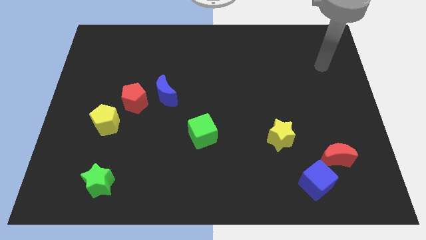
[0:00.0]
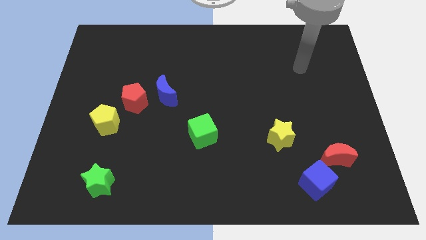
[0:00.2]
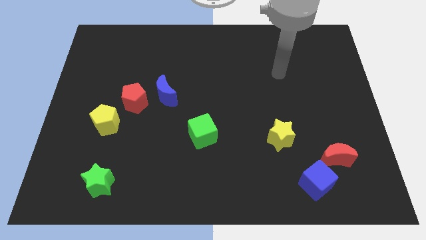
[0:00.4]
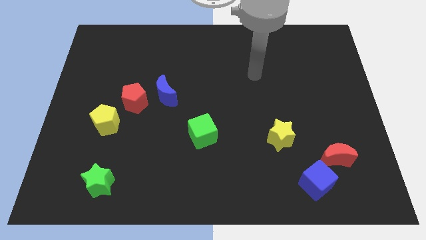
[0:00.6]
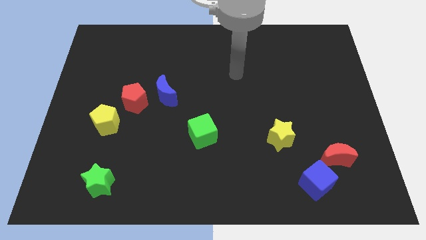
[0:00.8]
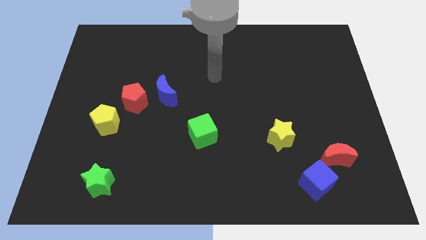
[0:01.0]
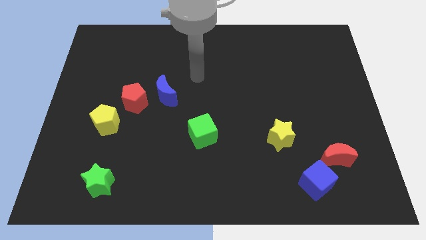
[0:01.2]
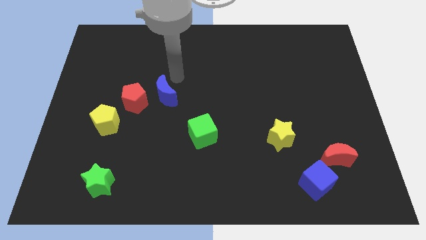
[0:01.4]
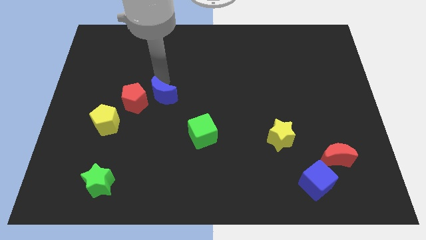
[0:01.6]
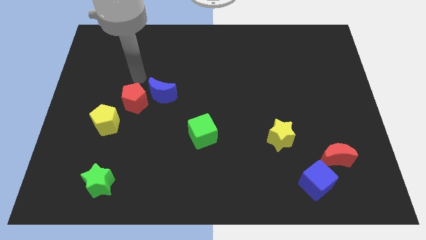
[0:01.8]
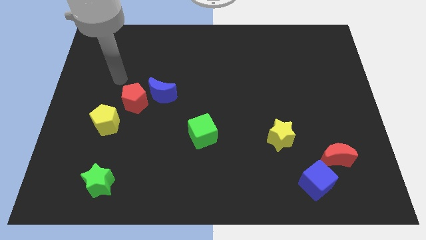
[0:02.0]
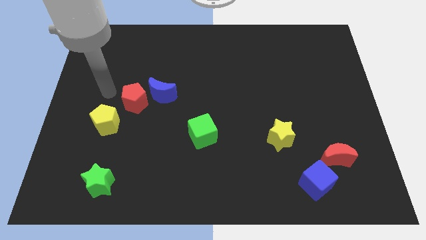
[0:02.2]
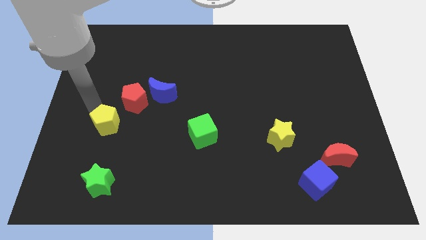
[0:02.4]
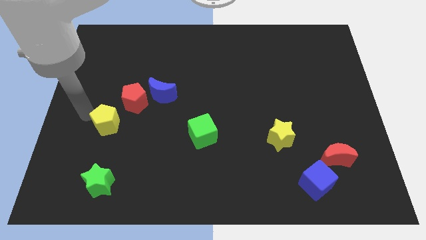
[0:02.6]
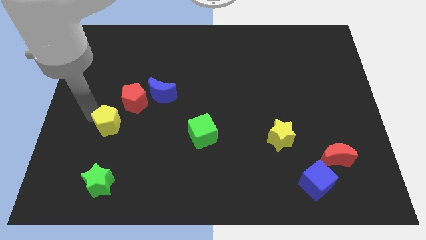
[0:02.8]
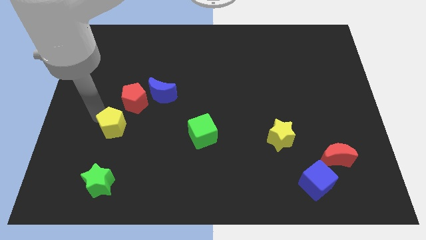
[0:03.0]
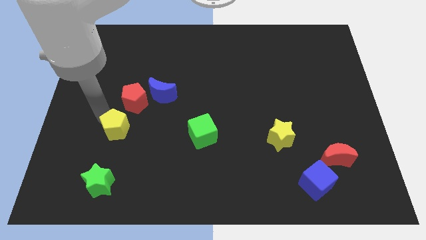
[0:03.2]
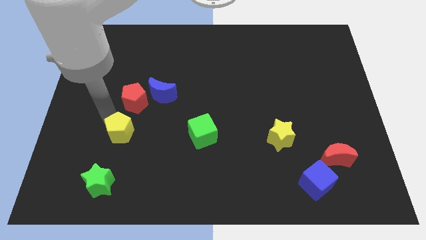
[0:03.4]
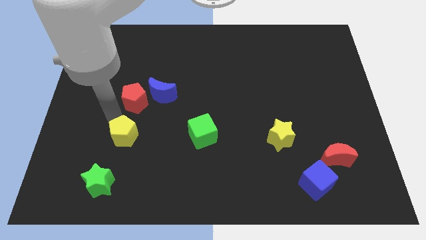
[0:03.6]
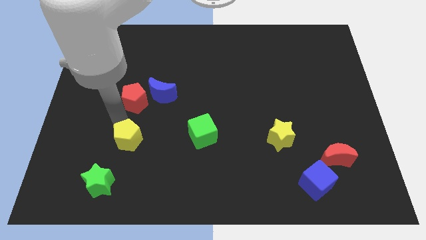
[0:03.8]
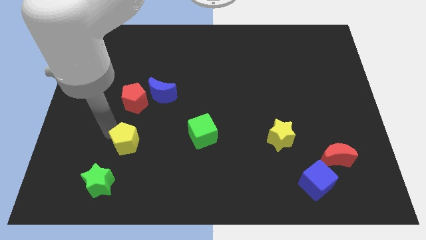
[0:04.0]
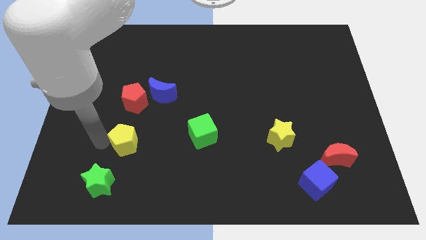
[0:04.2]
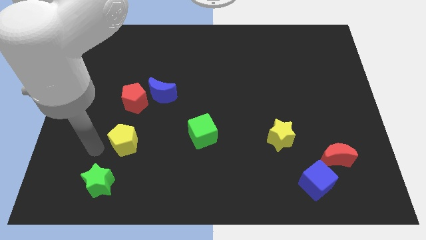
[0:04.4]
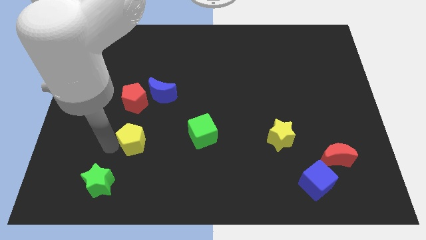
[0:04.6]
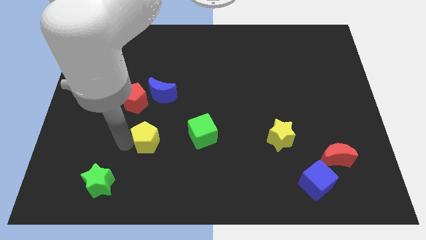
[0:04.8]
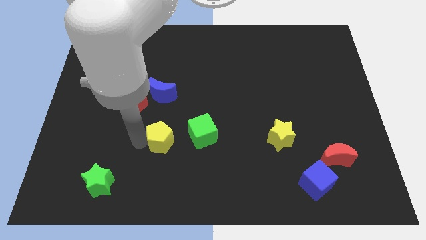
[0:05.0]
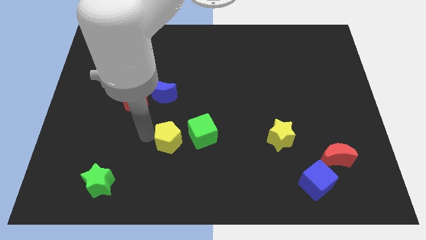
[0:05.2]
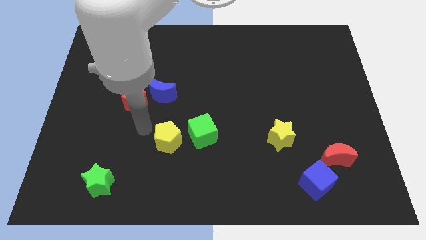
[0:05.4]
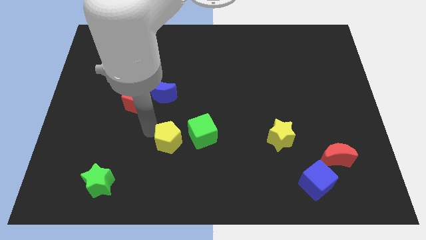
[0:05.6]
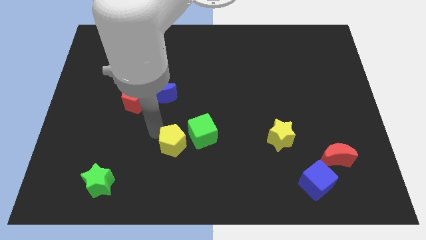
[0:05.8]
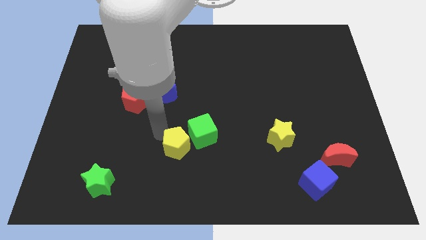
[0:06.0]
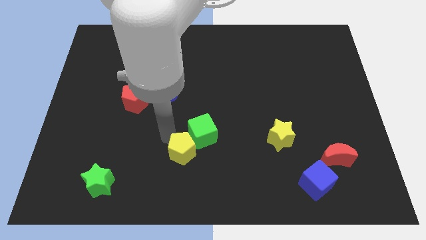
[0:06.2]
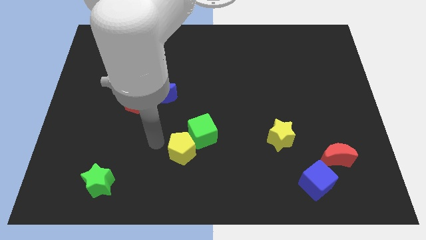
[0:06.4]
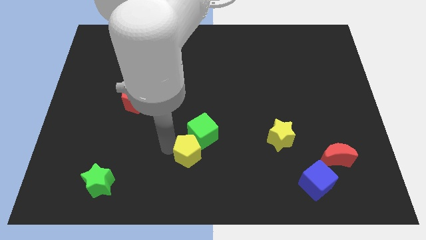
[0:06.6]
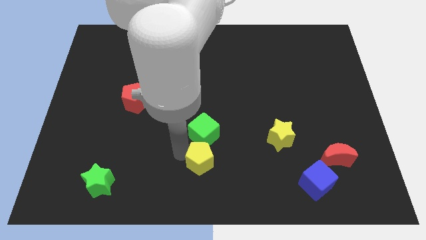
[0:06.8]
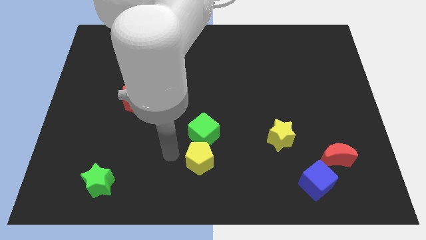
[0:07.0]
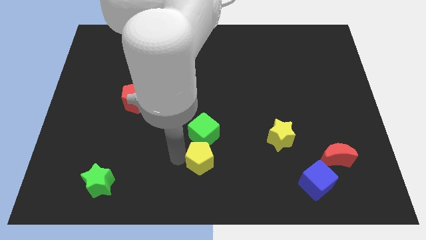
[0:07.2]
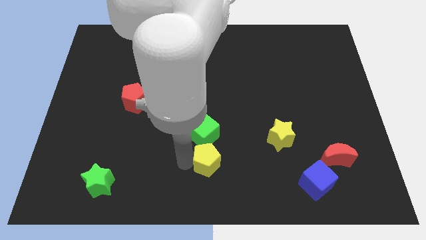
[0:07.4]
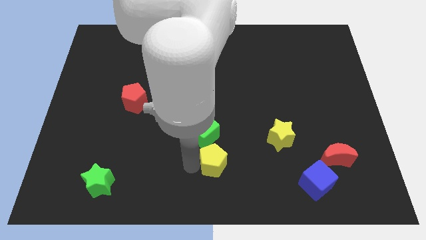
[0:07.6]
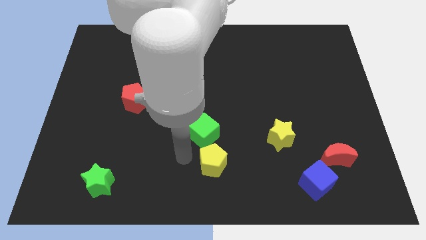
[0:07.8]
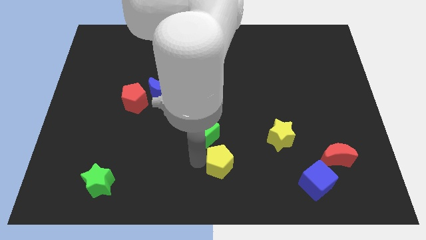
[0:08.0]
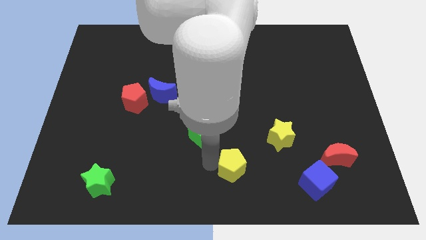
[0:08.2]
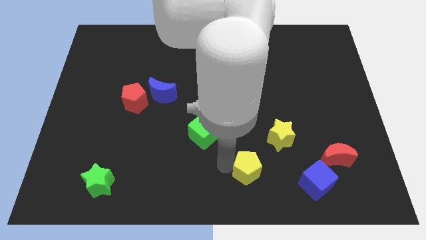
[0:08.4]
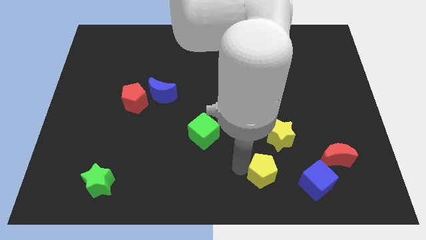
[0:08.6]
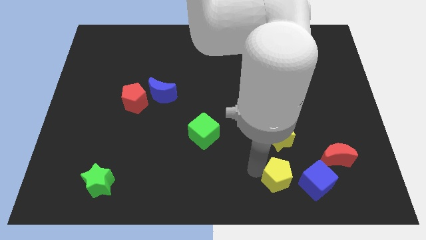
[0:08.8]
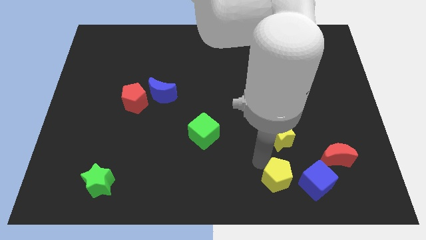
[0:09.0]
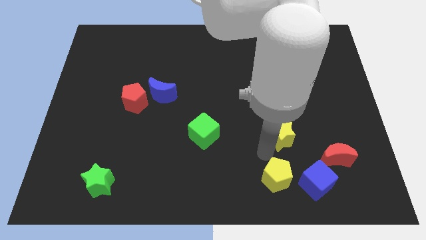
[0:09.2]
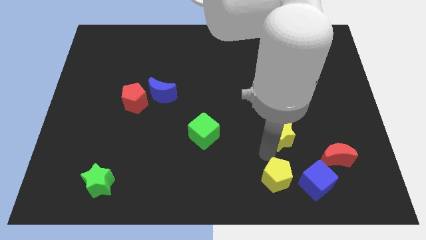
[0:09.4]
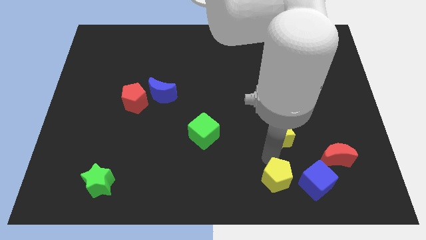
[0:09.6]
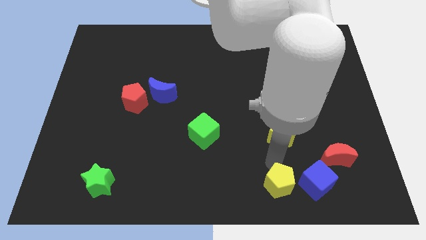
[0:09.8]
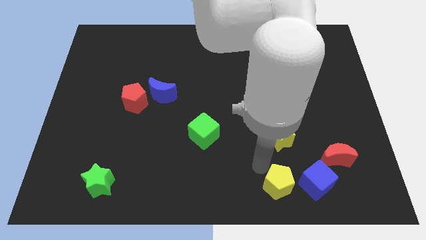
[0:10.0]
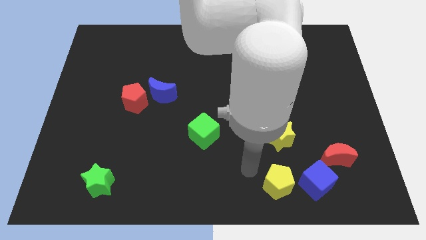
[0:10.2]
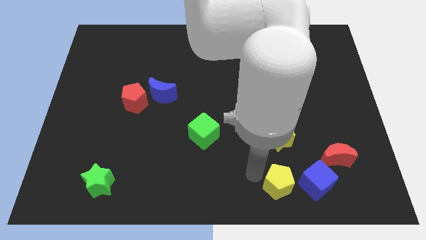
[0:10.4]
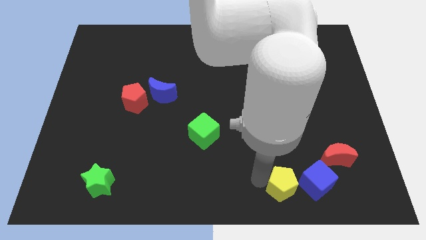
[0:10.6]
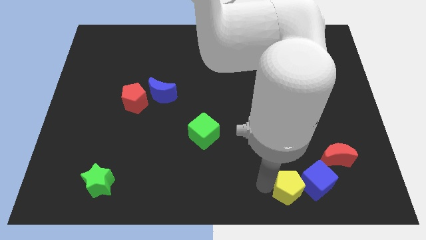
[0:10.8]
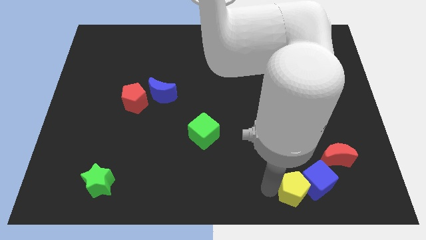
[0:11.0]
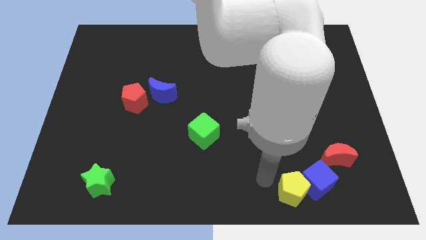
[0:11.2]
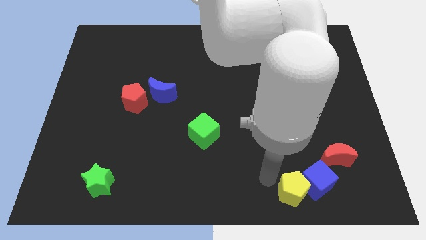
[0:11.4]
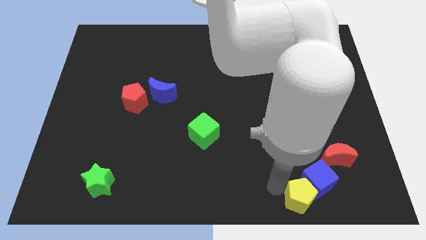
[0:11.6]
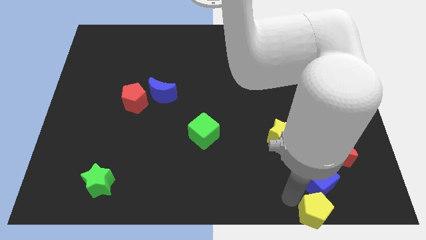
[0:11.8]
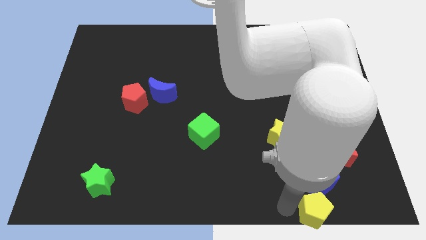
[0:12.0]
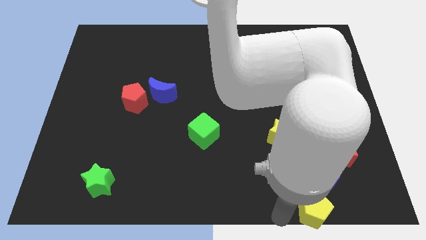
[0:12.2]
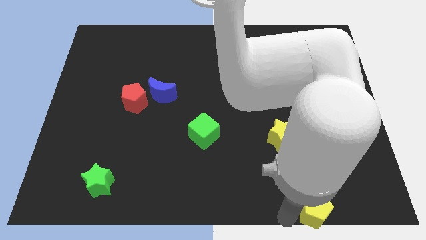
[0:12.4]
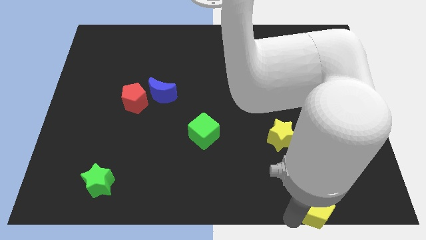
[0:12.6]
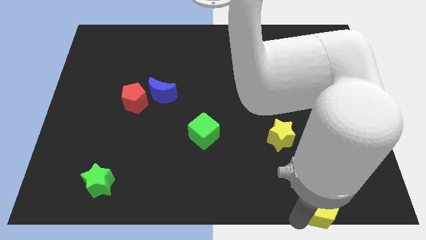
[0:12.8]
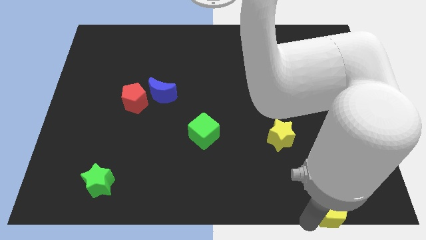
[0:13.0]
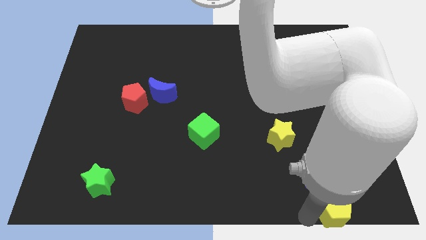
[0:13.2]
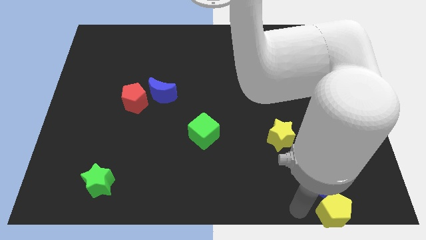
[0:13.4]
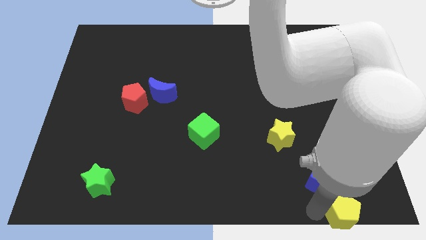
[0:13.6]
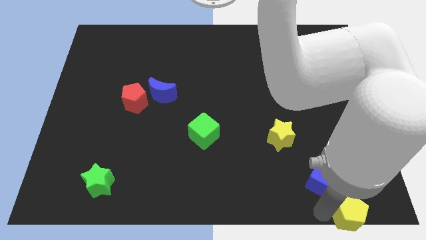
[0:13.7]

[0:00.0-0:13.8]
push the yellow pentagon to the bottom right corner
